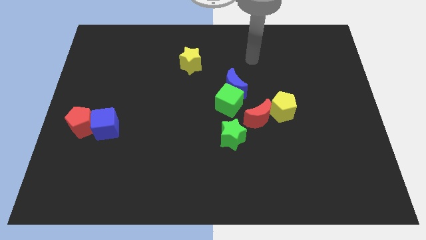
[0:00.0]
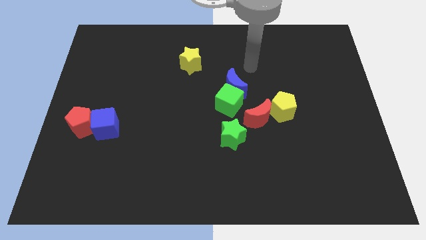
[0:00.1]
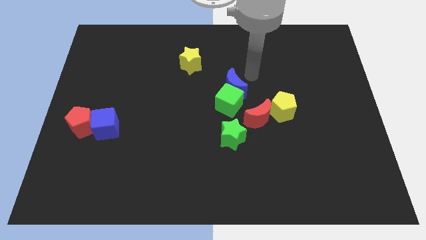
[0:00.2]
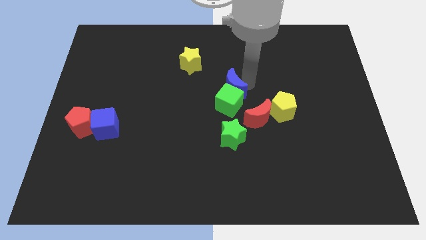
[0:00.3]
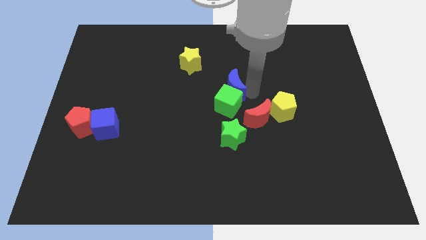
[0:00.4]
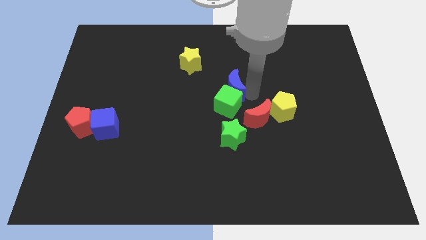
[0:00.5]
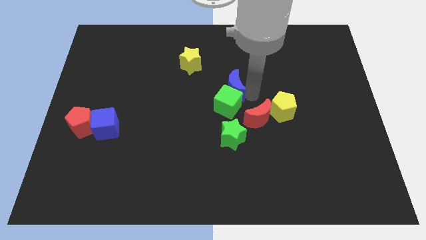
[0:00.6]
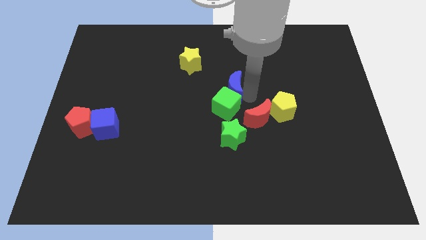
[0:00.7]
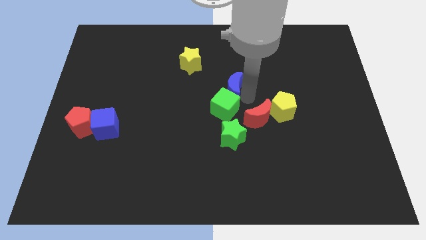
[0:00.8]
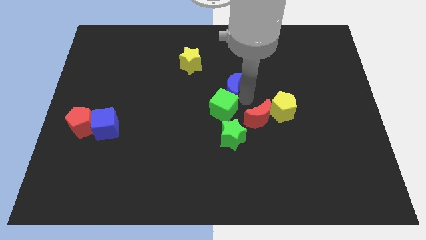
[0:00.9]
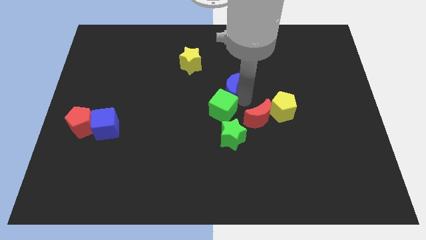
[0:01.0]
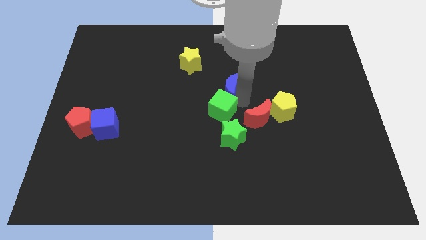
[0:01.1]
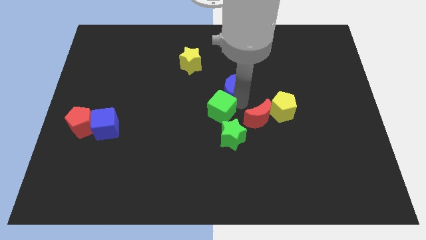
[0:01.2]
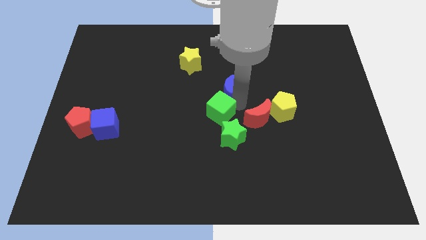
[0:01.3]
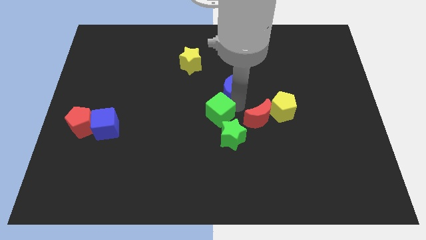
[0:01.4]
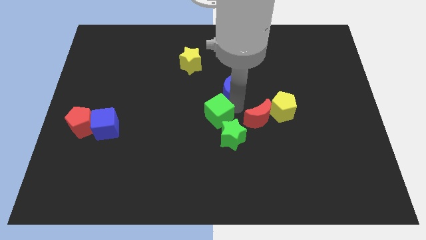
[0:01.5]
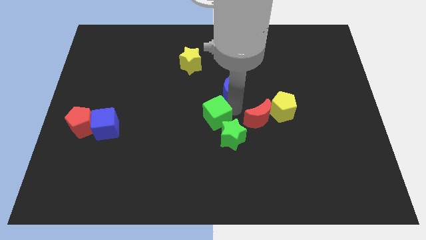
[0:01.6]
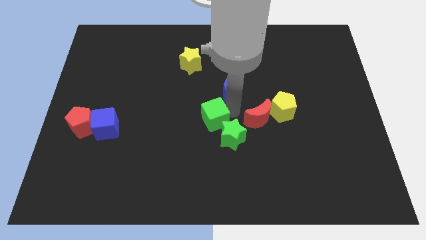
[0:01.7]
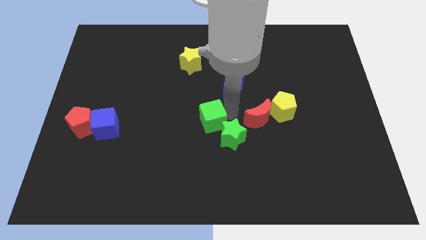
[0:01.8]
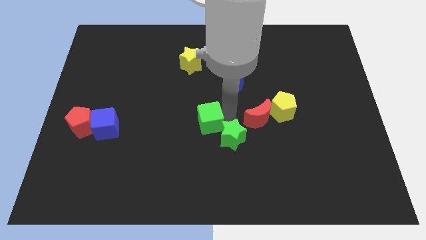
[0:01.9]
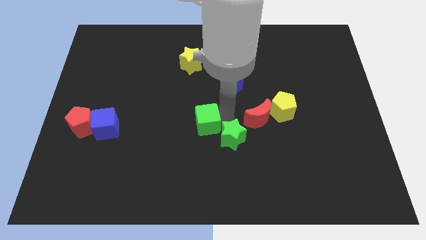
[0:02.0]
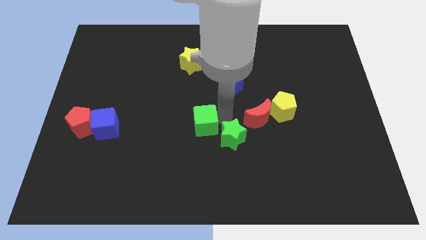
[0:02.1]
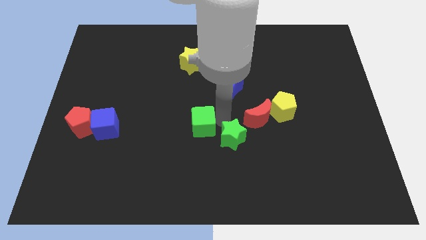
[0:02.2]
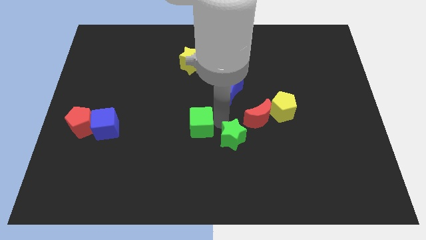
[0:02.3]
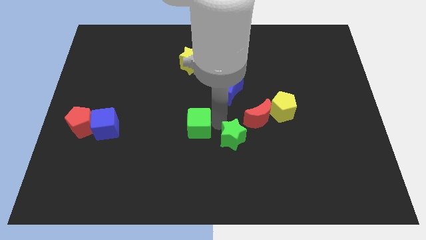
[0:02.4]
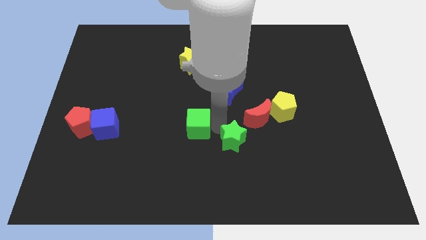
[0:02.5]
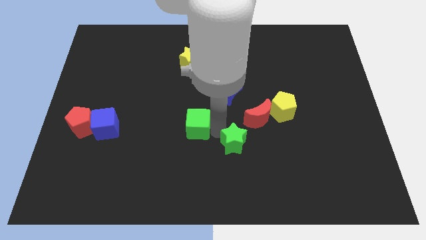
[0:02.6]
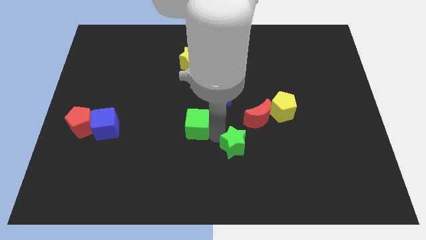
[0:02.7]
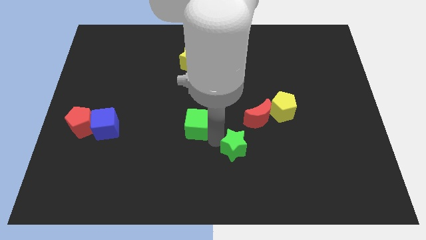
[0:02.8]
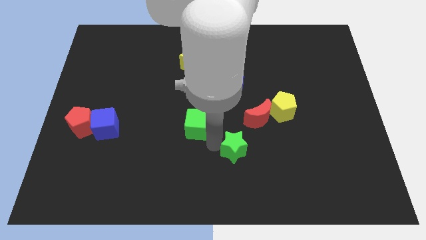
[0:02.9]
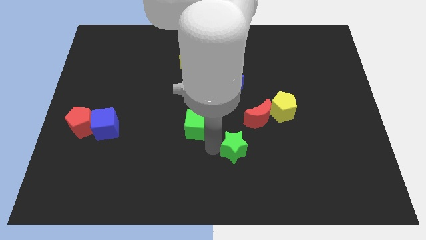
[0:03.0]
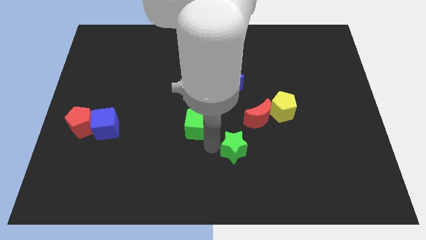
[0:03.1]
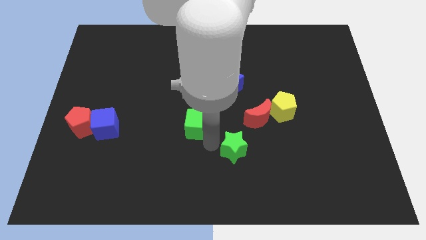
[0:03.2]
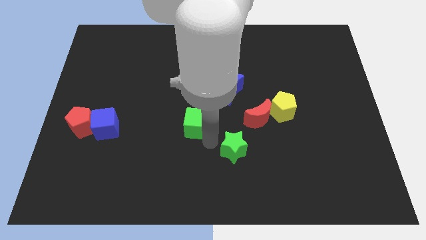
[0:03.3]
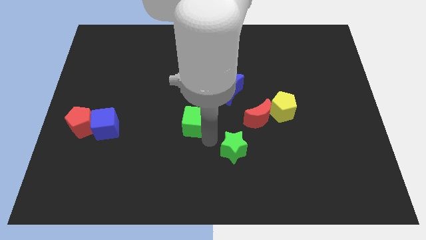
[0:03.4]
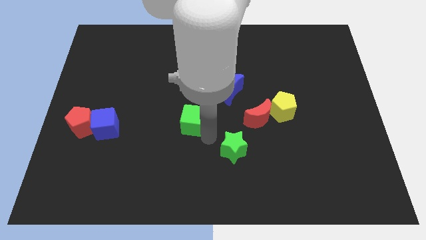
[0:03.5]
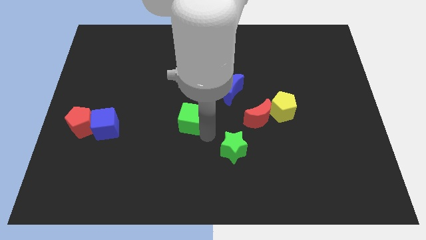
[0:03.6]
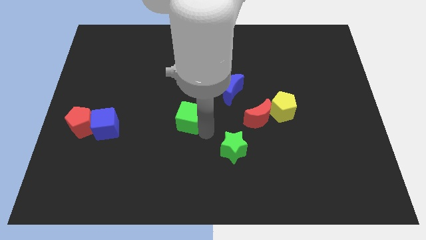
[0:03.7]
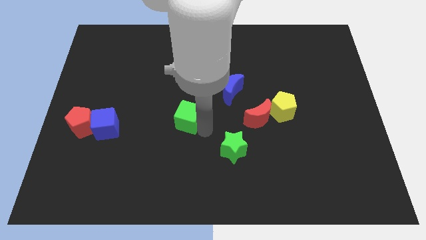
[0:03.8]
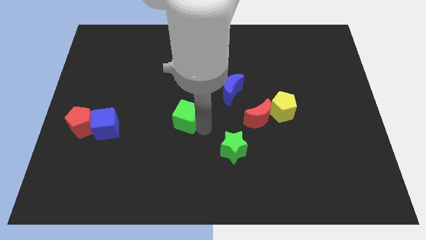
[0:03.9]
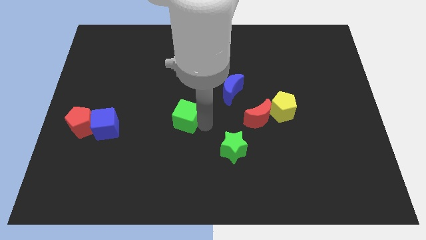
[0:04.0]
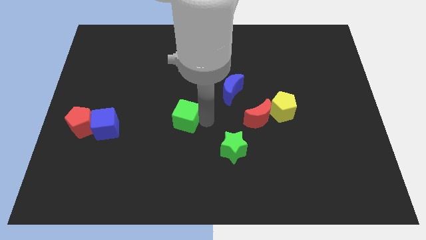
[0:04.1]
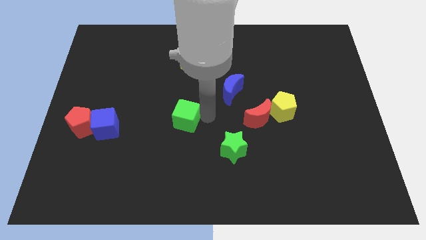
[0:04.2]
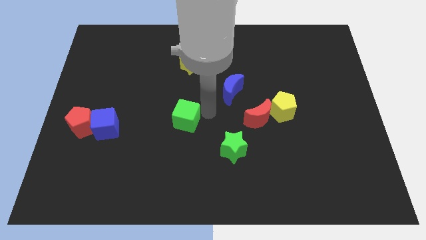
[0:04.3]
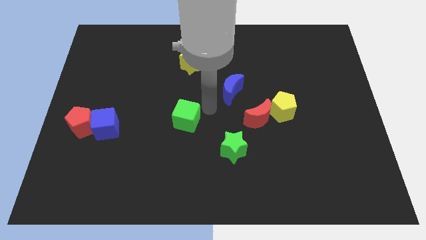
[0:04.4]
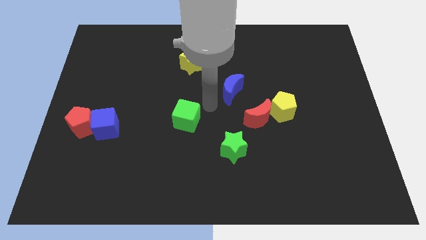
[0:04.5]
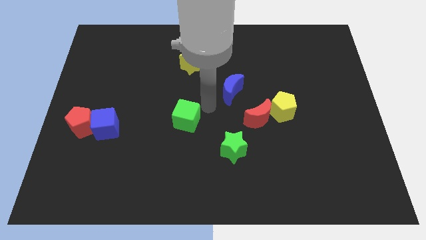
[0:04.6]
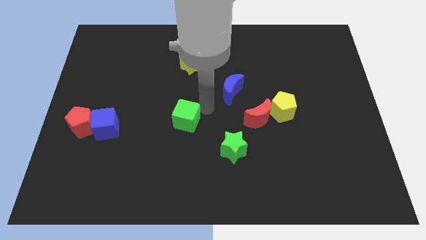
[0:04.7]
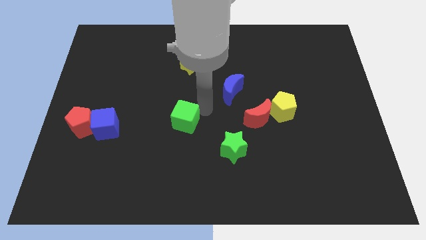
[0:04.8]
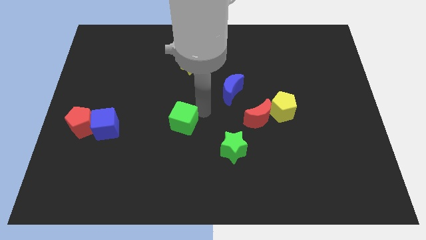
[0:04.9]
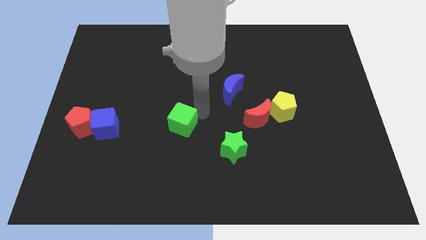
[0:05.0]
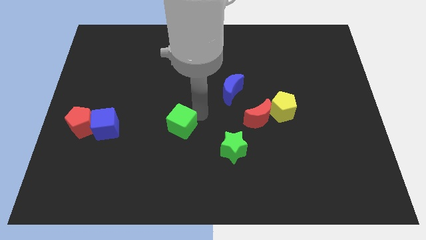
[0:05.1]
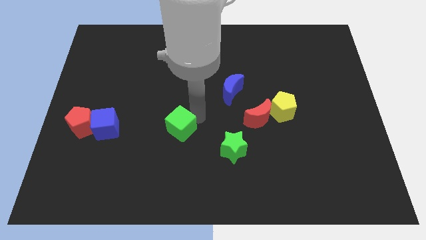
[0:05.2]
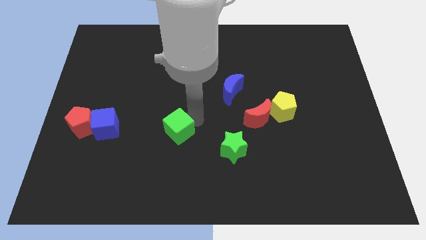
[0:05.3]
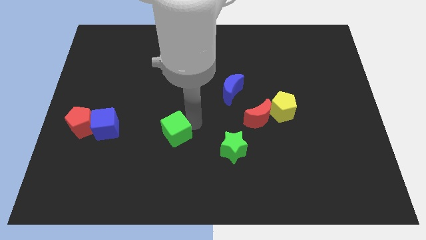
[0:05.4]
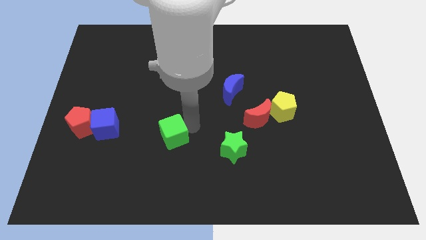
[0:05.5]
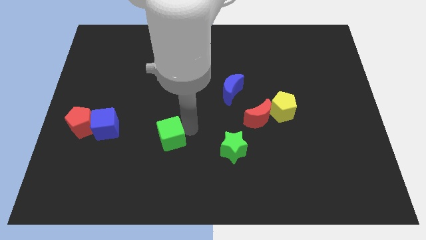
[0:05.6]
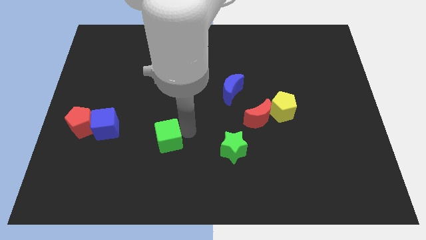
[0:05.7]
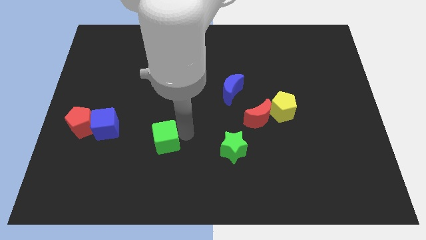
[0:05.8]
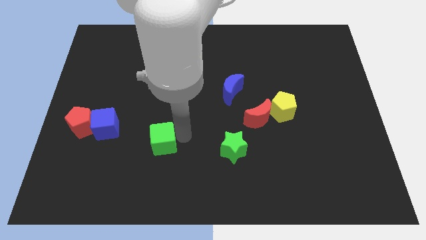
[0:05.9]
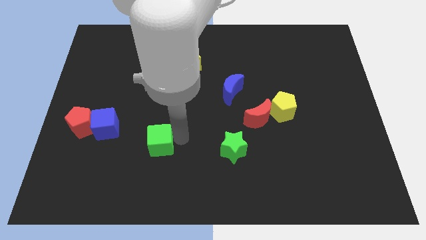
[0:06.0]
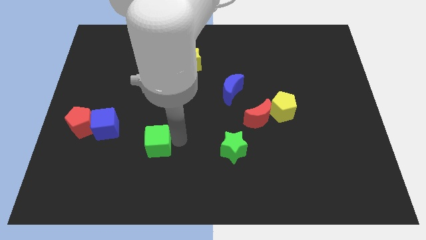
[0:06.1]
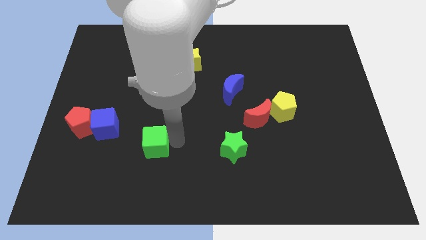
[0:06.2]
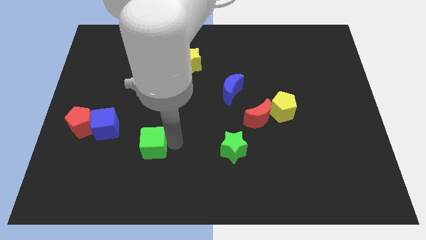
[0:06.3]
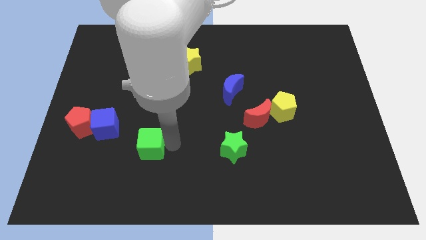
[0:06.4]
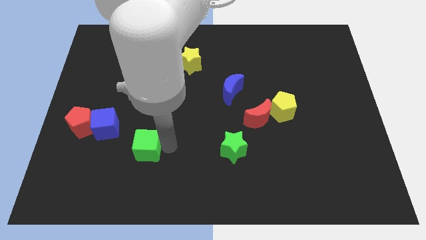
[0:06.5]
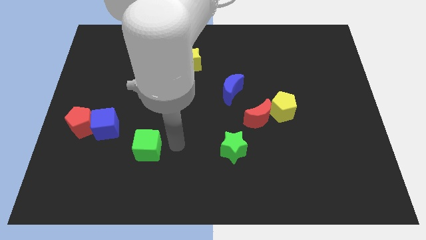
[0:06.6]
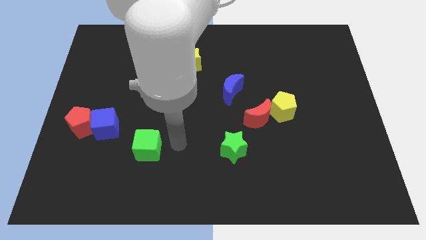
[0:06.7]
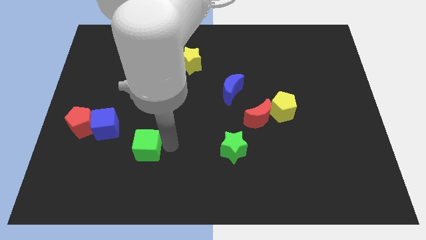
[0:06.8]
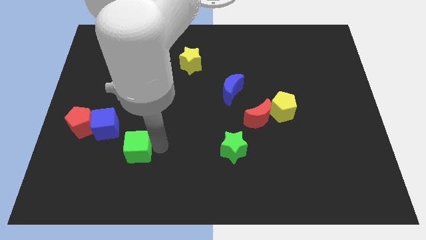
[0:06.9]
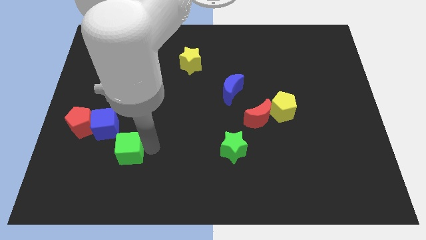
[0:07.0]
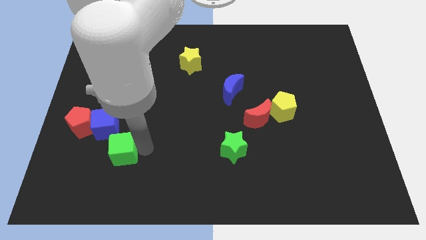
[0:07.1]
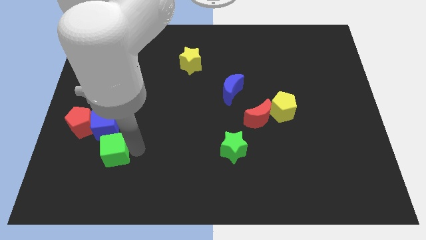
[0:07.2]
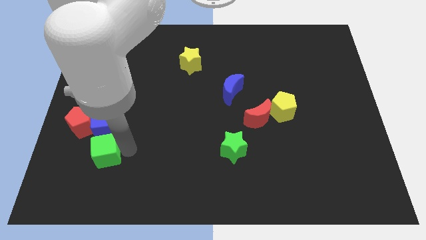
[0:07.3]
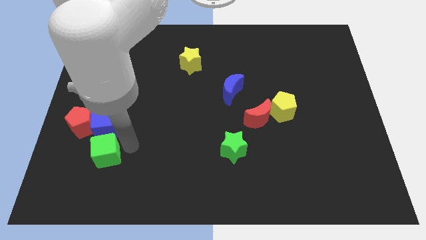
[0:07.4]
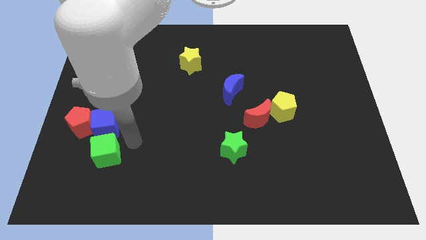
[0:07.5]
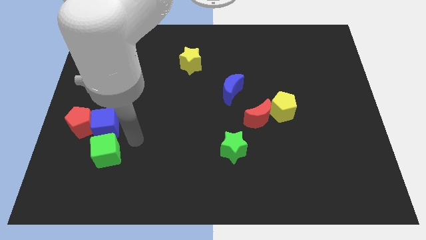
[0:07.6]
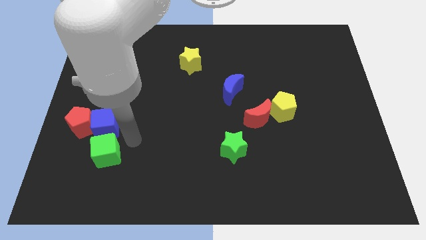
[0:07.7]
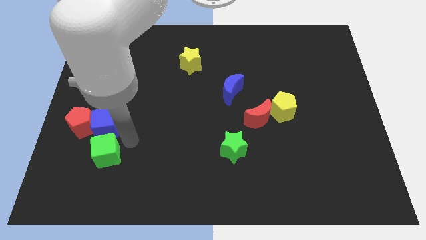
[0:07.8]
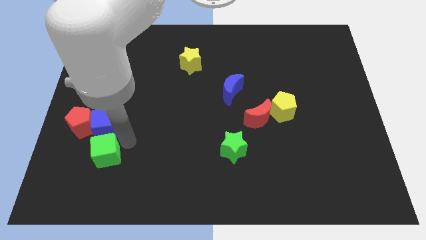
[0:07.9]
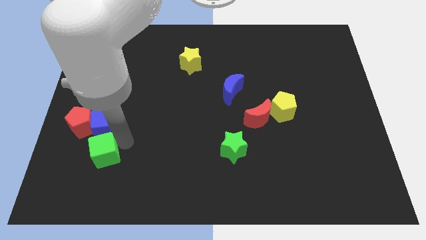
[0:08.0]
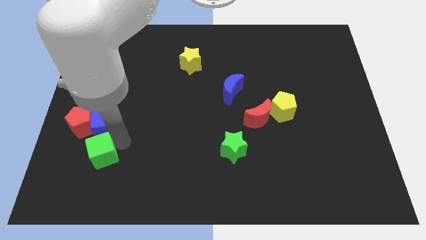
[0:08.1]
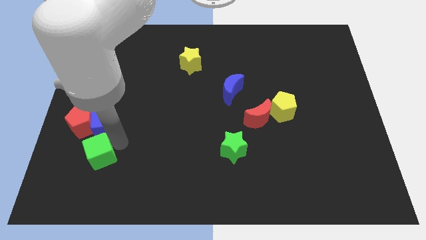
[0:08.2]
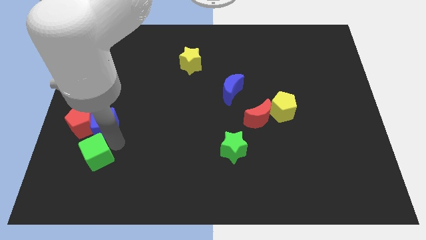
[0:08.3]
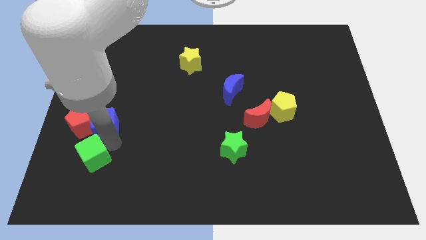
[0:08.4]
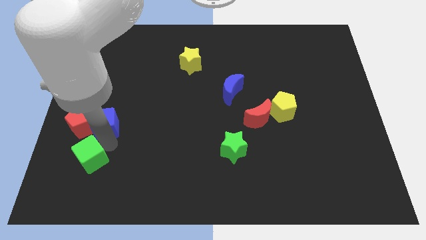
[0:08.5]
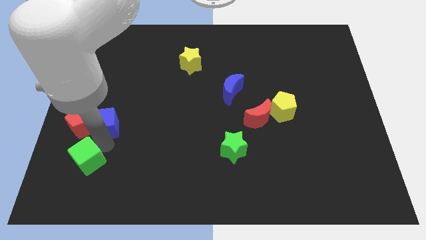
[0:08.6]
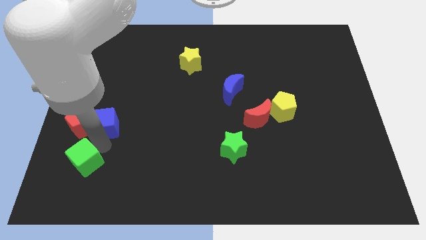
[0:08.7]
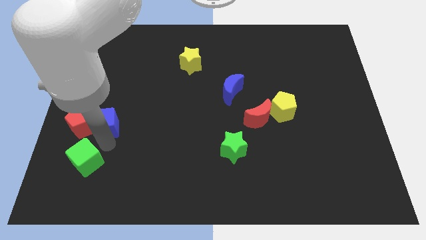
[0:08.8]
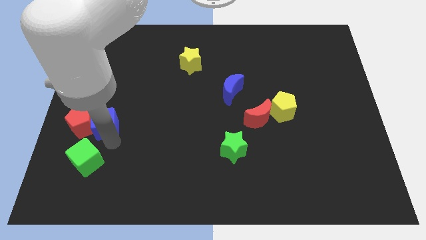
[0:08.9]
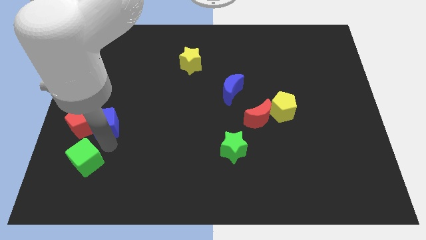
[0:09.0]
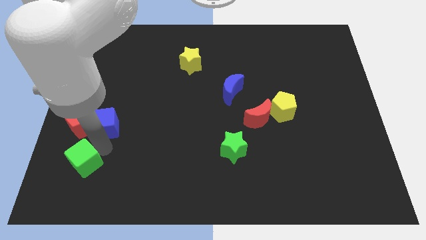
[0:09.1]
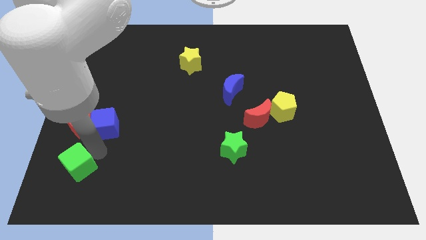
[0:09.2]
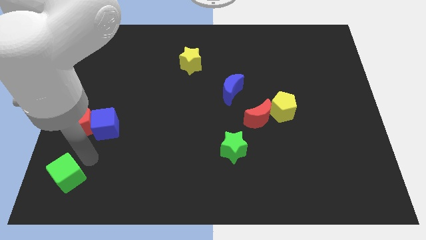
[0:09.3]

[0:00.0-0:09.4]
push the green cube to the bottom left
